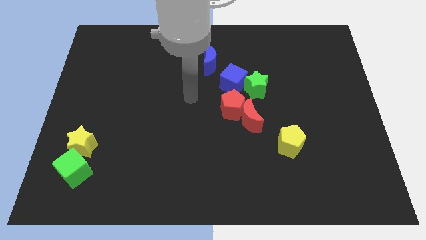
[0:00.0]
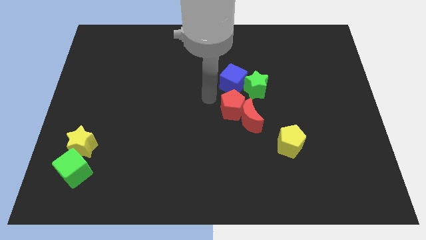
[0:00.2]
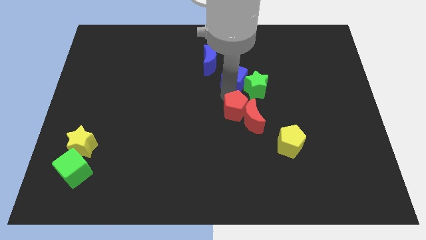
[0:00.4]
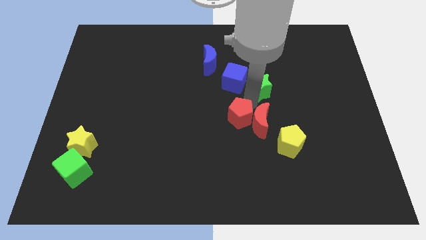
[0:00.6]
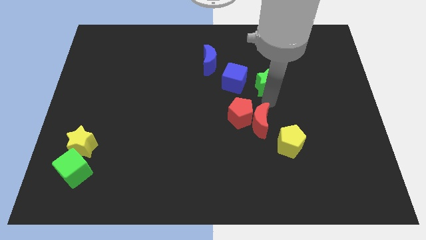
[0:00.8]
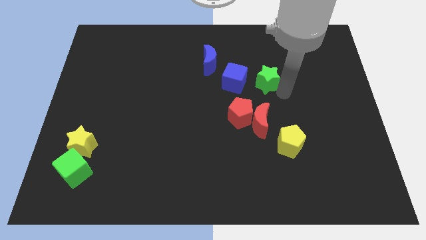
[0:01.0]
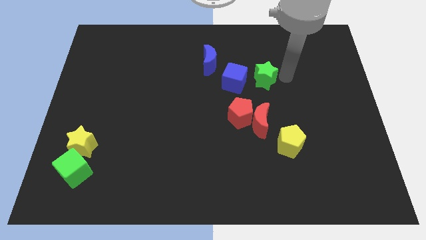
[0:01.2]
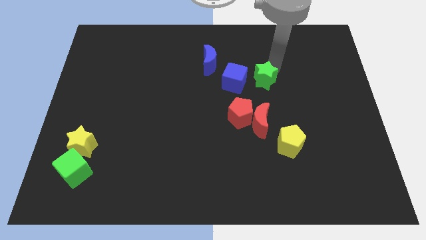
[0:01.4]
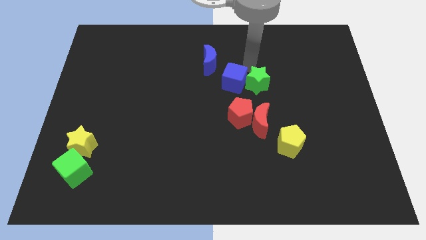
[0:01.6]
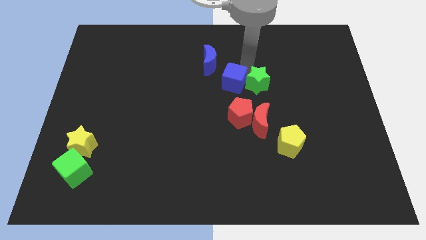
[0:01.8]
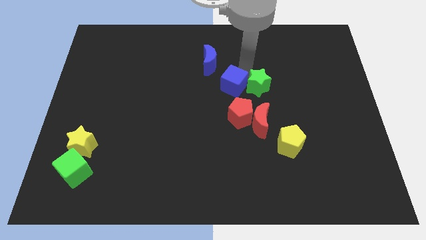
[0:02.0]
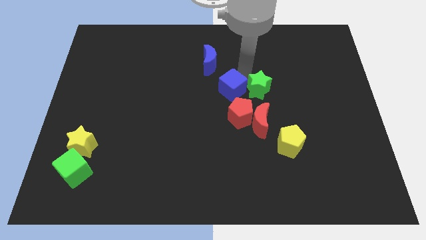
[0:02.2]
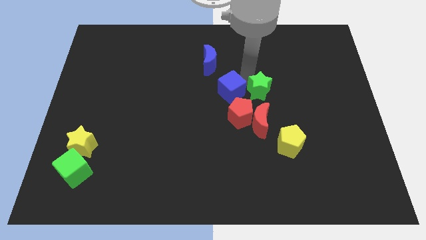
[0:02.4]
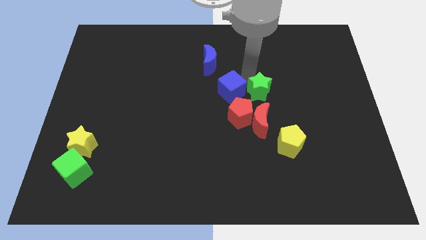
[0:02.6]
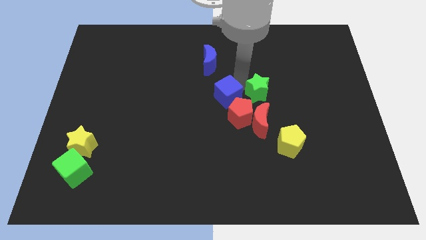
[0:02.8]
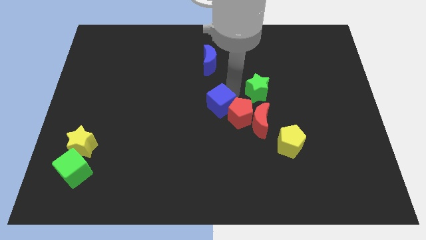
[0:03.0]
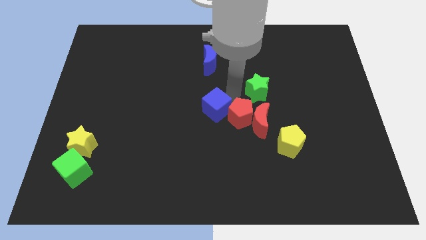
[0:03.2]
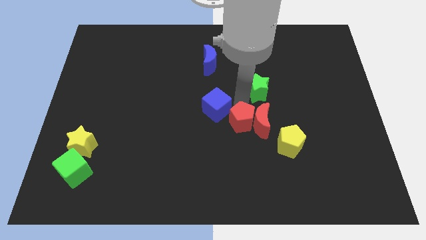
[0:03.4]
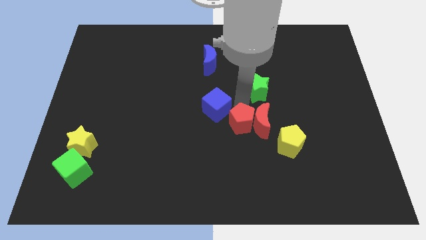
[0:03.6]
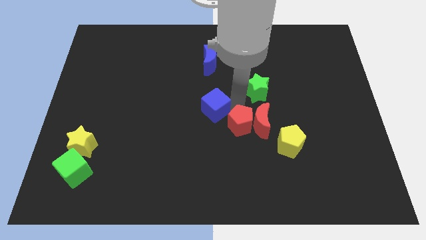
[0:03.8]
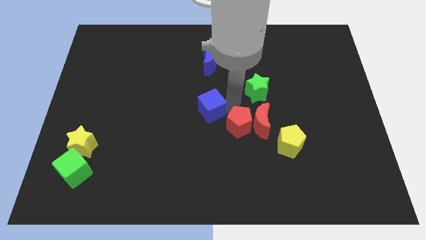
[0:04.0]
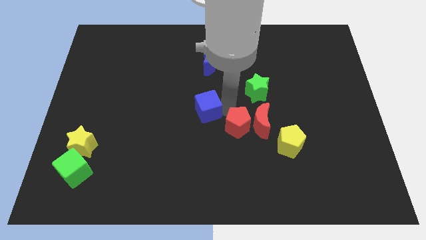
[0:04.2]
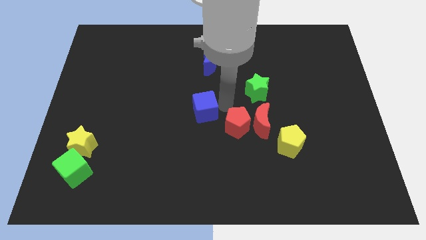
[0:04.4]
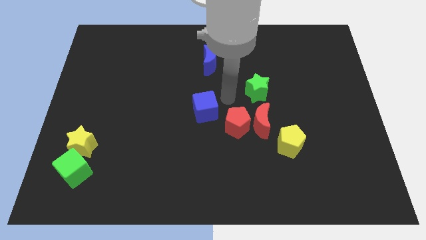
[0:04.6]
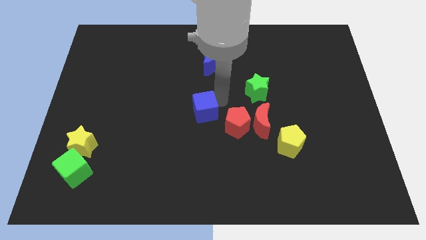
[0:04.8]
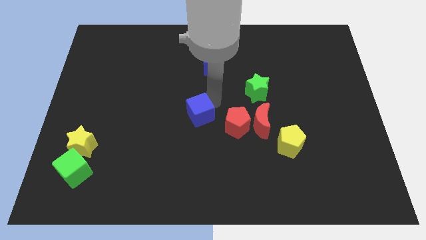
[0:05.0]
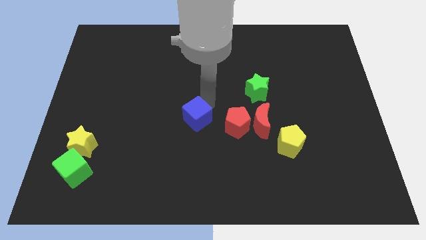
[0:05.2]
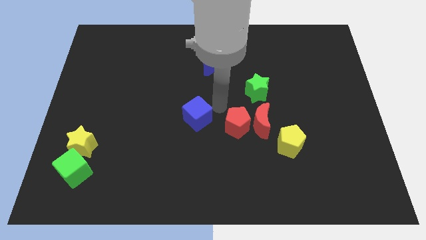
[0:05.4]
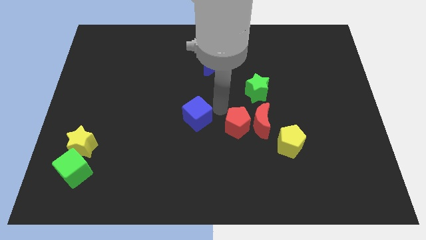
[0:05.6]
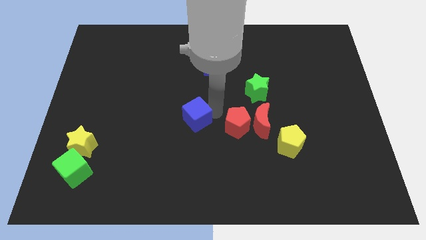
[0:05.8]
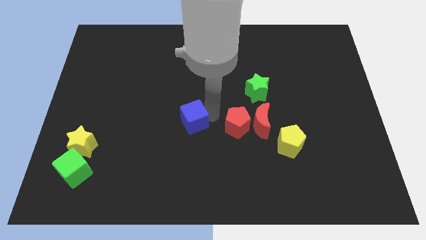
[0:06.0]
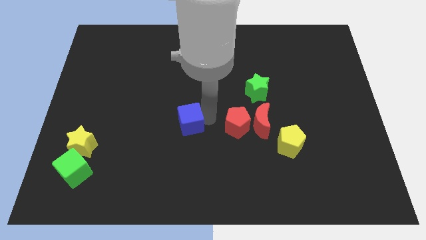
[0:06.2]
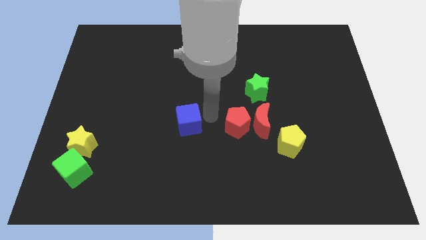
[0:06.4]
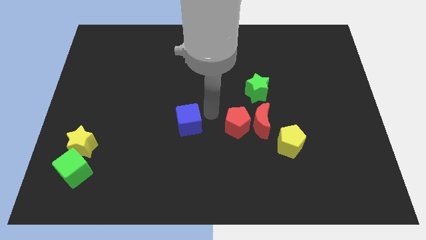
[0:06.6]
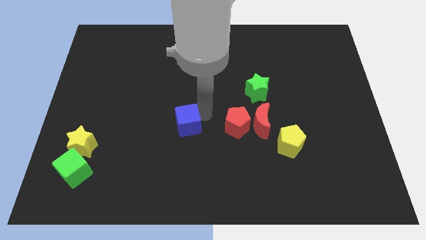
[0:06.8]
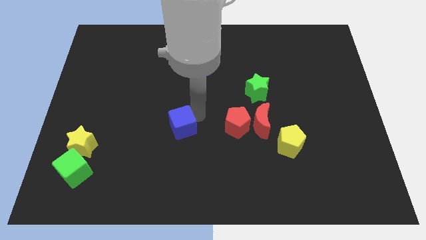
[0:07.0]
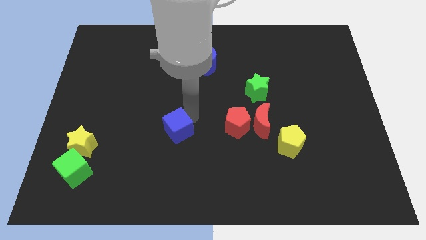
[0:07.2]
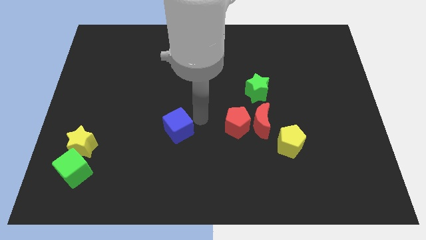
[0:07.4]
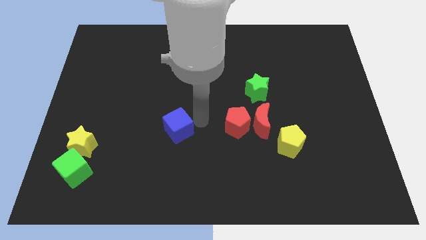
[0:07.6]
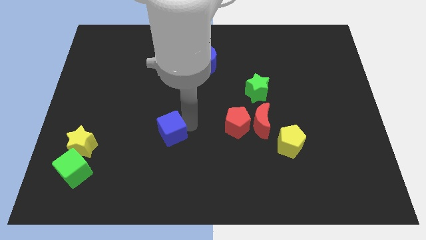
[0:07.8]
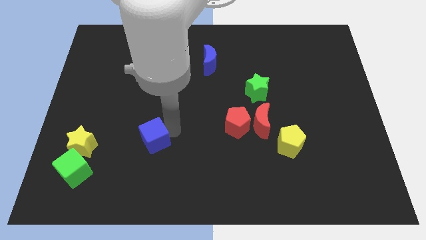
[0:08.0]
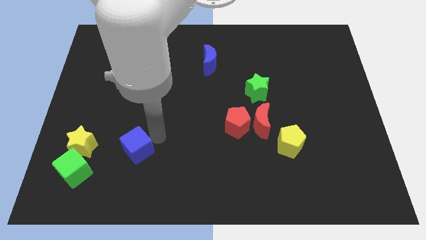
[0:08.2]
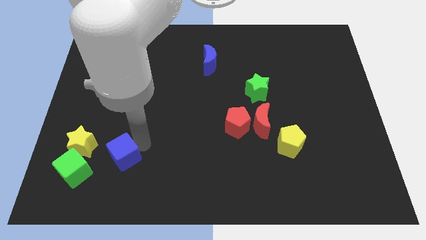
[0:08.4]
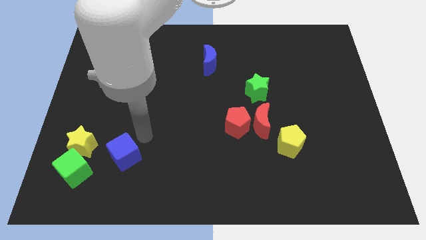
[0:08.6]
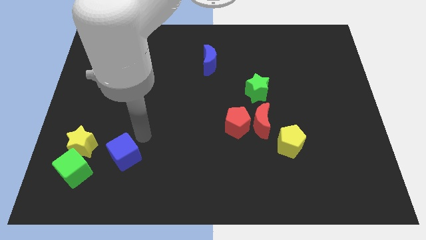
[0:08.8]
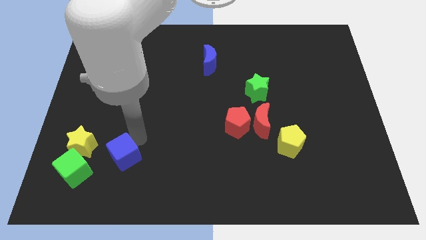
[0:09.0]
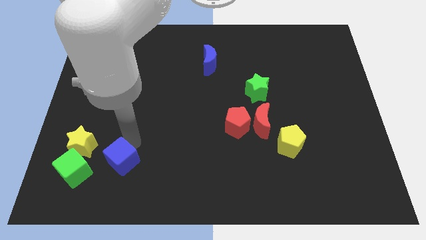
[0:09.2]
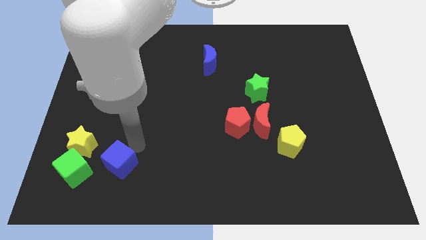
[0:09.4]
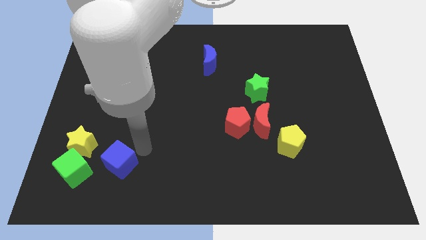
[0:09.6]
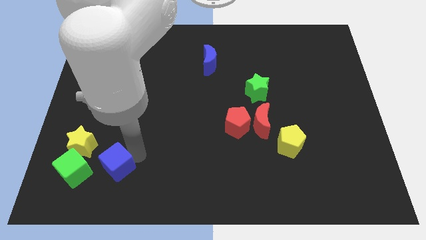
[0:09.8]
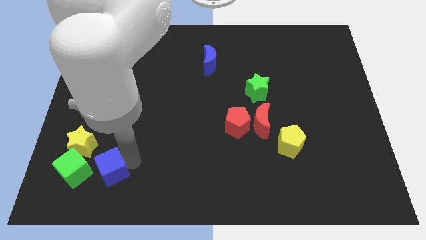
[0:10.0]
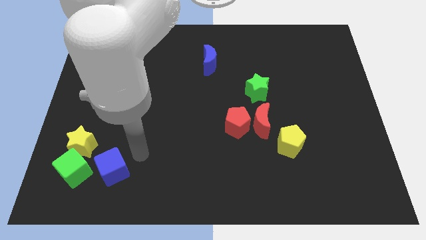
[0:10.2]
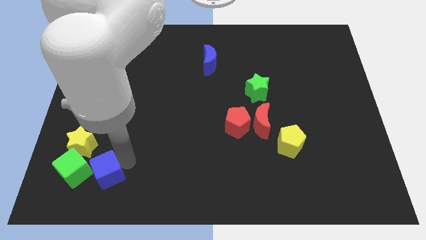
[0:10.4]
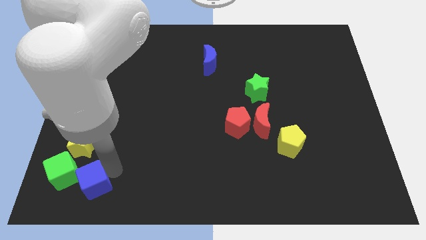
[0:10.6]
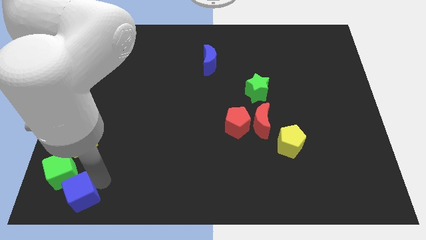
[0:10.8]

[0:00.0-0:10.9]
push the blue cube to the bottom left of the board

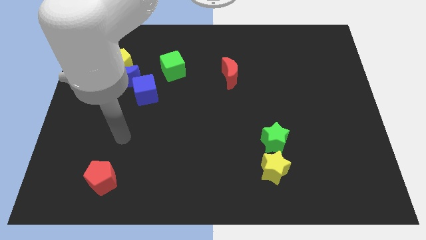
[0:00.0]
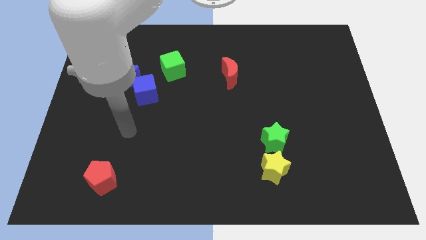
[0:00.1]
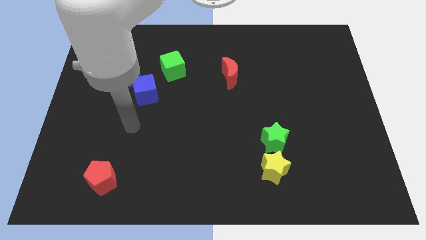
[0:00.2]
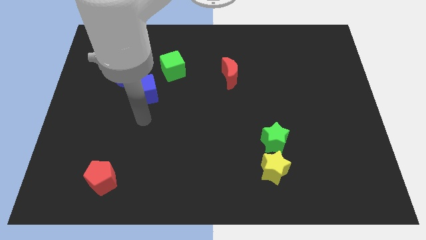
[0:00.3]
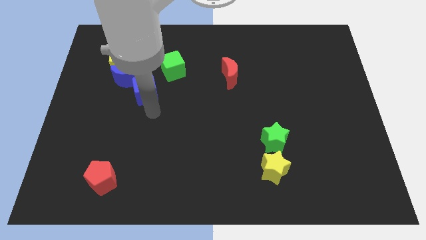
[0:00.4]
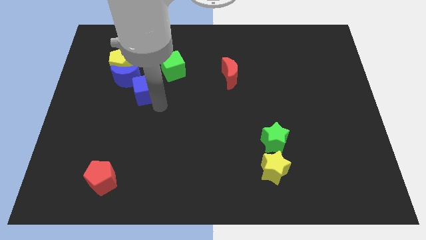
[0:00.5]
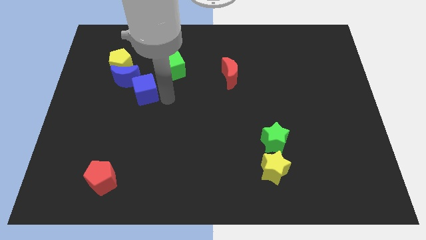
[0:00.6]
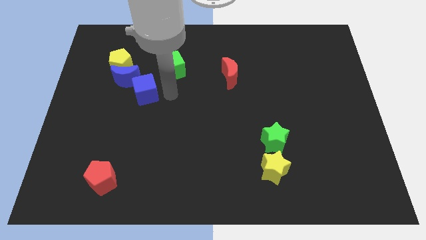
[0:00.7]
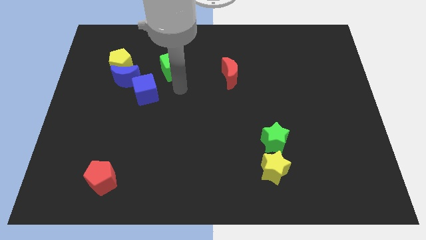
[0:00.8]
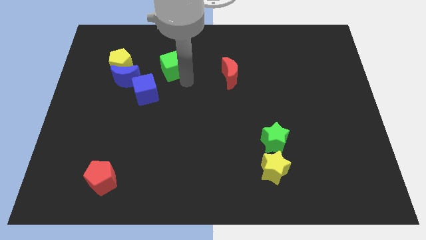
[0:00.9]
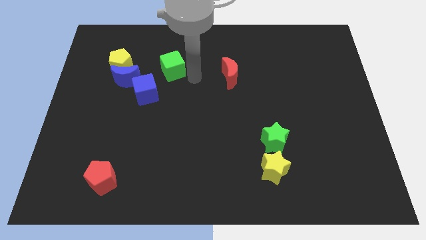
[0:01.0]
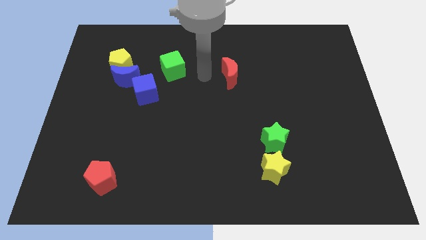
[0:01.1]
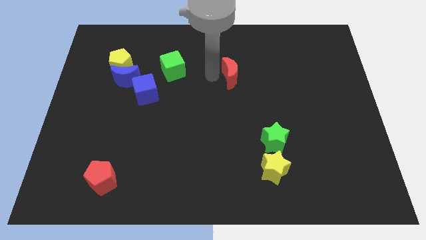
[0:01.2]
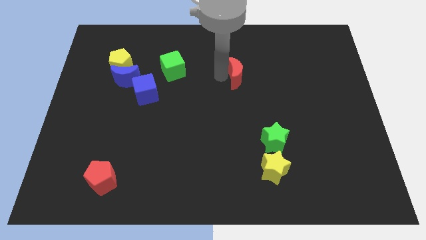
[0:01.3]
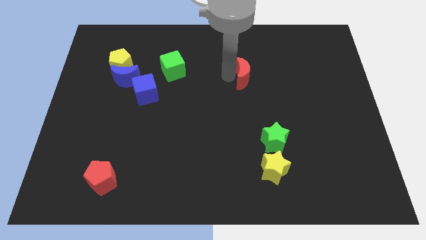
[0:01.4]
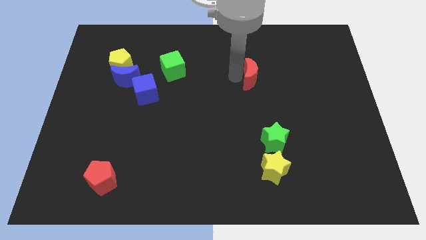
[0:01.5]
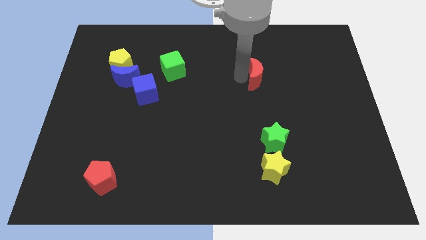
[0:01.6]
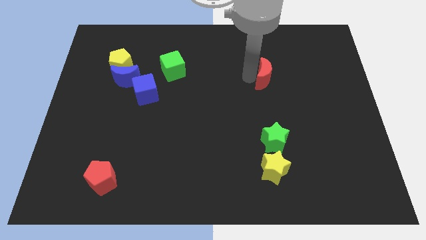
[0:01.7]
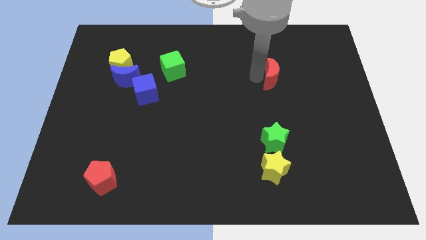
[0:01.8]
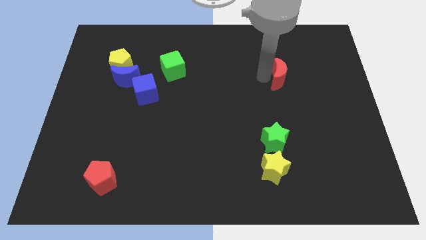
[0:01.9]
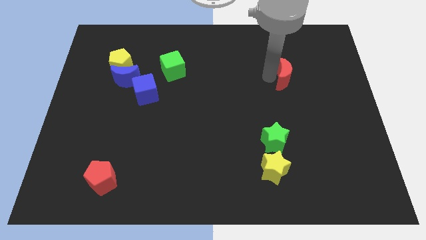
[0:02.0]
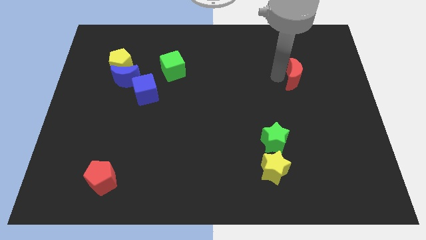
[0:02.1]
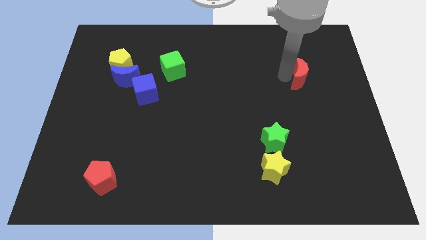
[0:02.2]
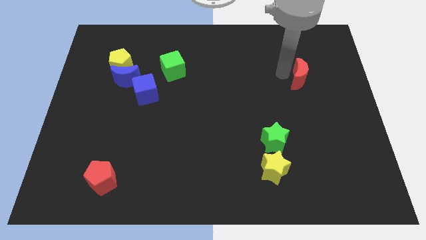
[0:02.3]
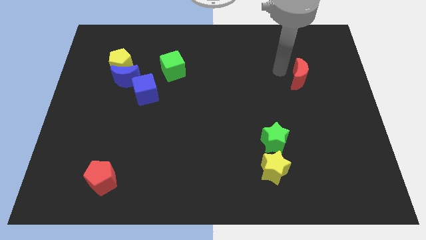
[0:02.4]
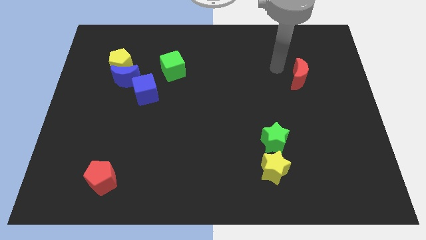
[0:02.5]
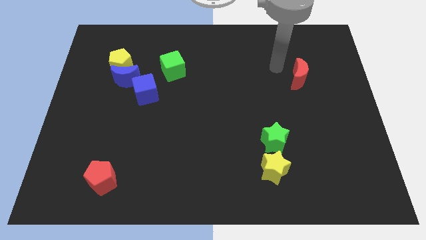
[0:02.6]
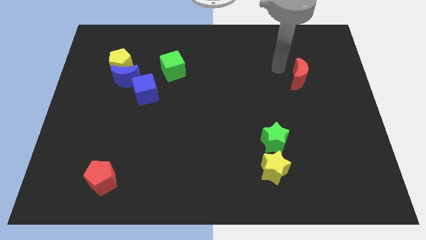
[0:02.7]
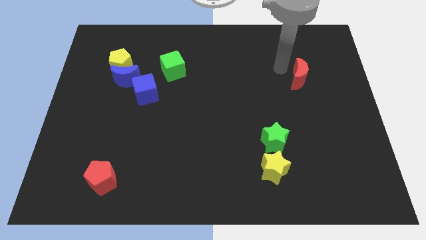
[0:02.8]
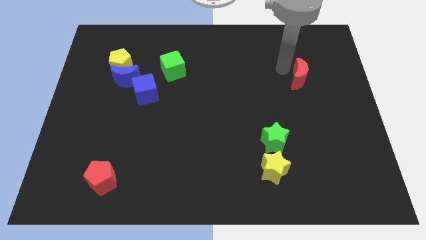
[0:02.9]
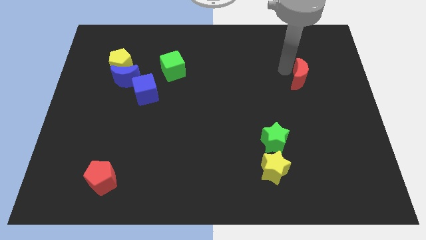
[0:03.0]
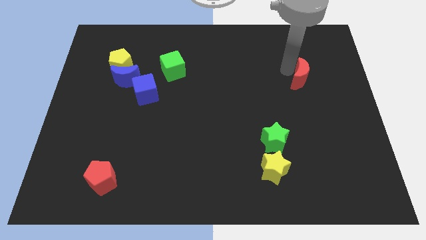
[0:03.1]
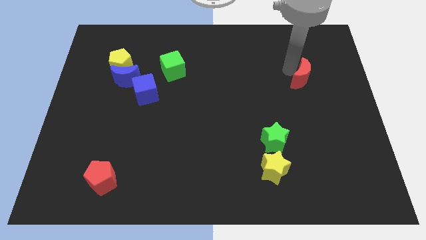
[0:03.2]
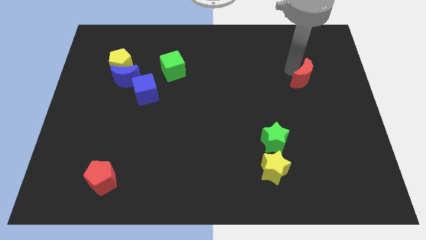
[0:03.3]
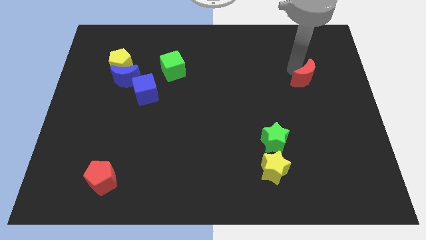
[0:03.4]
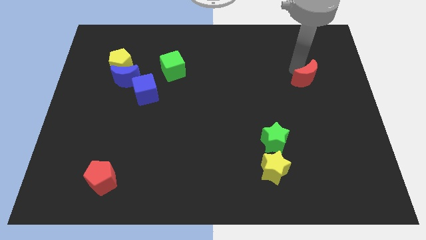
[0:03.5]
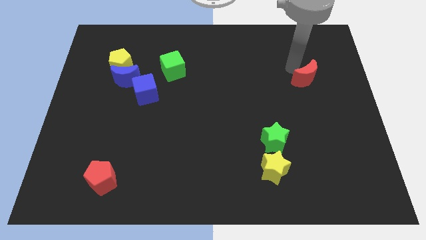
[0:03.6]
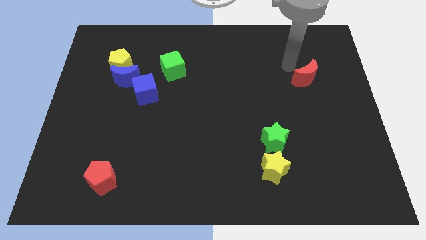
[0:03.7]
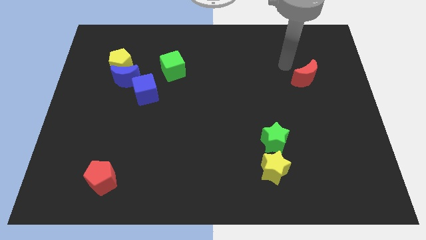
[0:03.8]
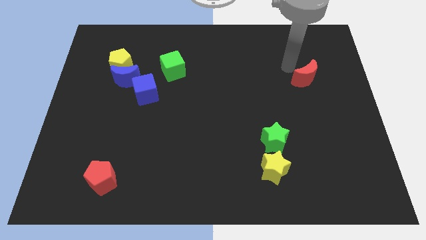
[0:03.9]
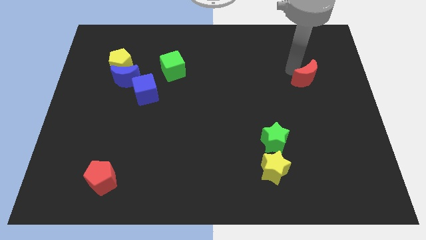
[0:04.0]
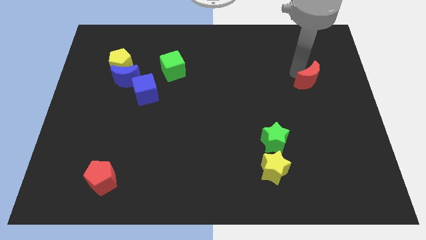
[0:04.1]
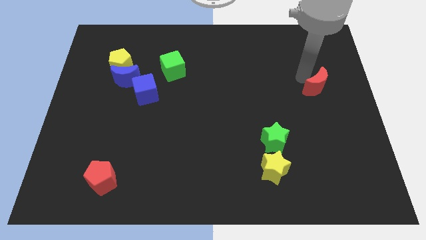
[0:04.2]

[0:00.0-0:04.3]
slide the red moon to the right side of the board
